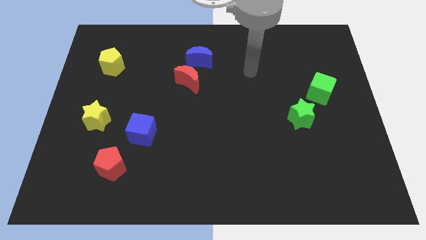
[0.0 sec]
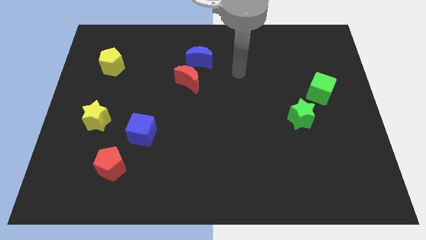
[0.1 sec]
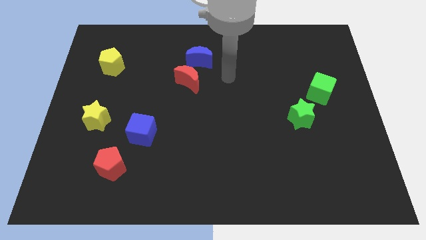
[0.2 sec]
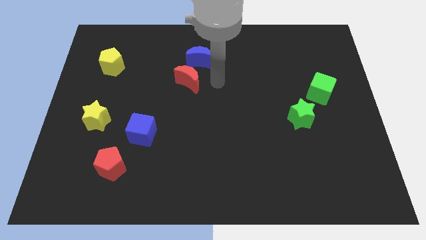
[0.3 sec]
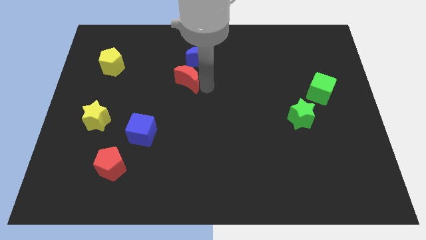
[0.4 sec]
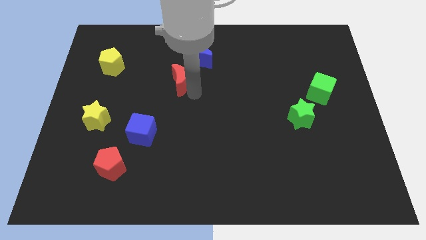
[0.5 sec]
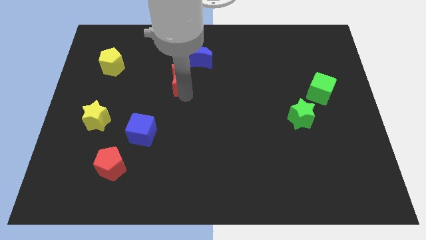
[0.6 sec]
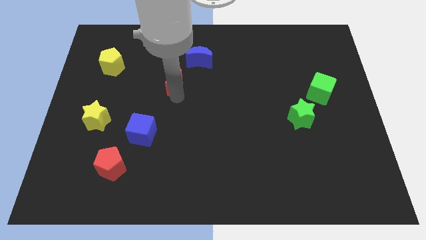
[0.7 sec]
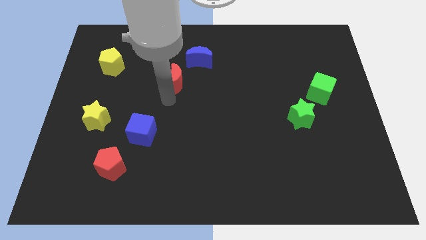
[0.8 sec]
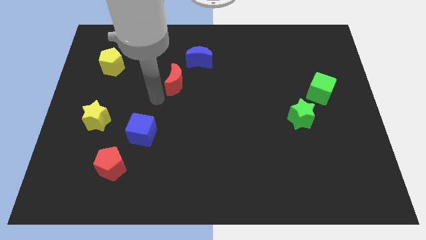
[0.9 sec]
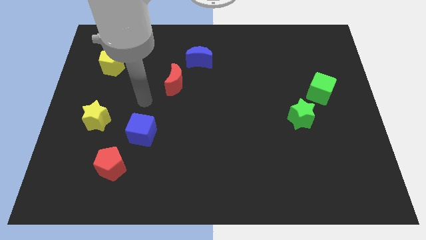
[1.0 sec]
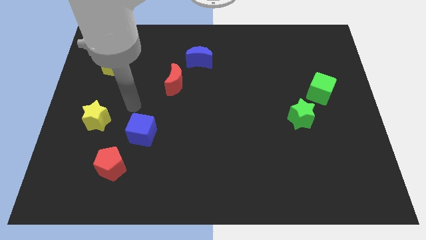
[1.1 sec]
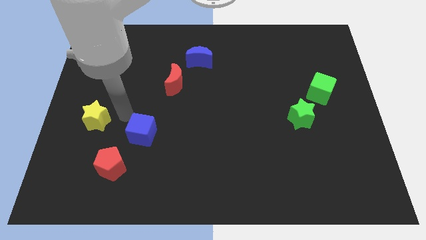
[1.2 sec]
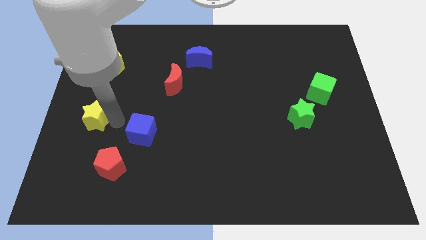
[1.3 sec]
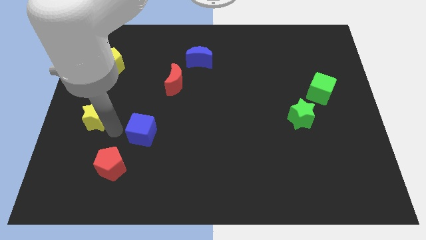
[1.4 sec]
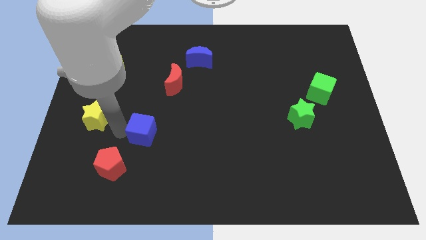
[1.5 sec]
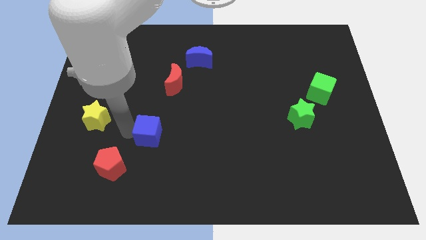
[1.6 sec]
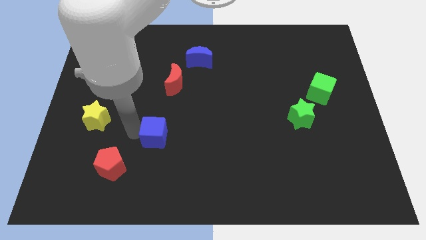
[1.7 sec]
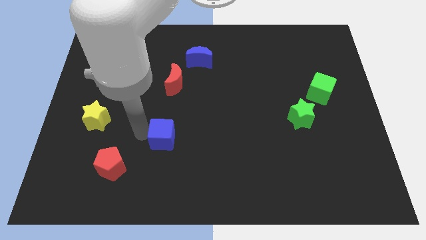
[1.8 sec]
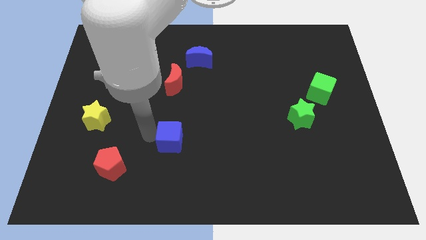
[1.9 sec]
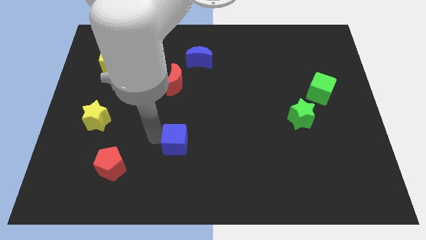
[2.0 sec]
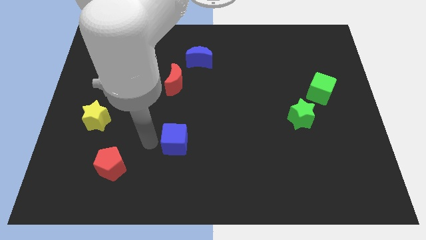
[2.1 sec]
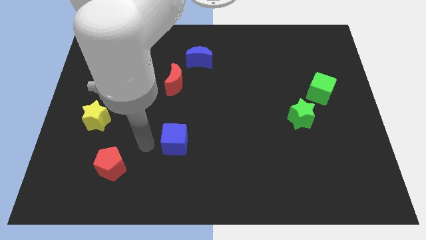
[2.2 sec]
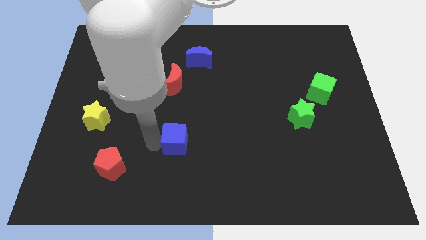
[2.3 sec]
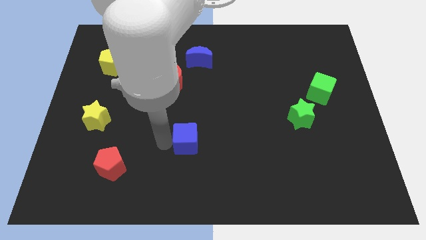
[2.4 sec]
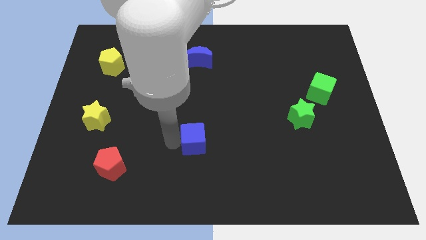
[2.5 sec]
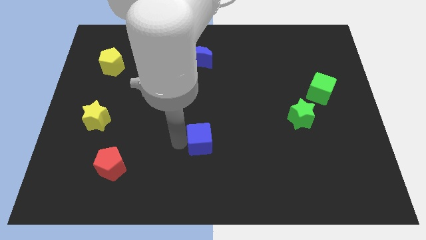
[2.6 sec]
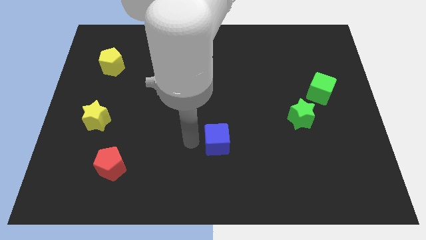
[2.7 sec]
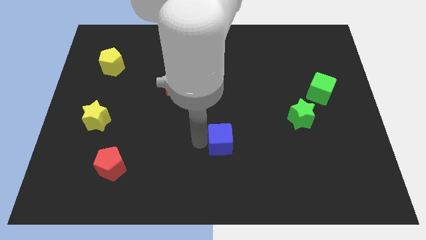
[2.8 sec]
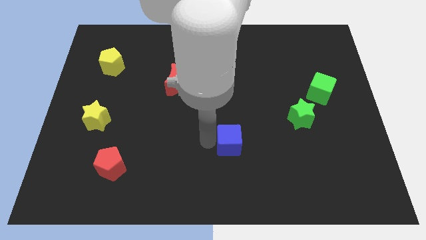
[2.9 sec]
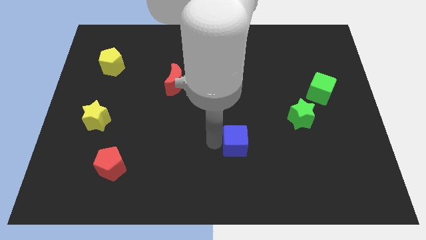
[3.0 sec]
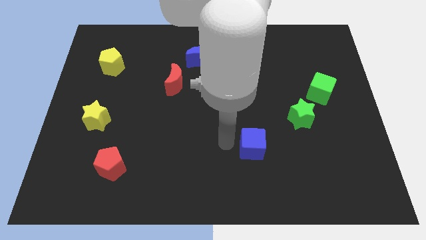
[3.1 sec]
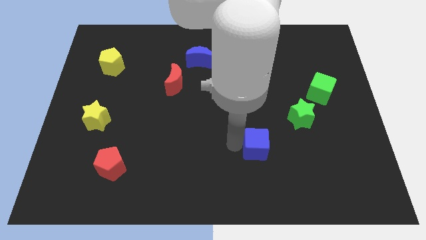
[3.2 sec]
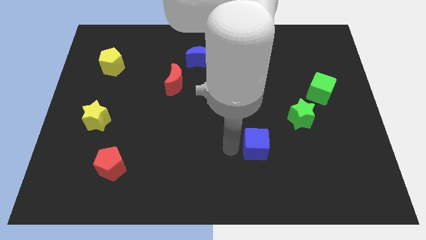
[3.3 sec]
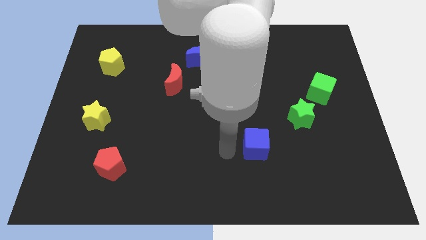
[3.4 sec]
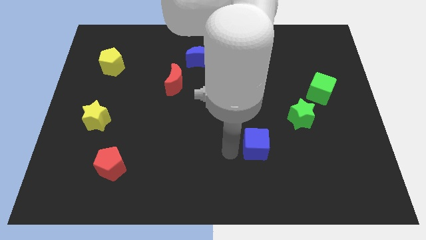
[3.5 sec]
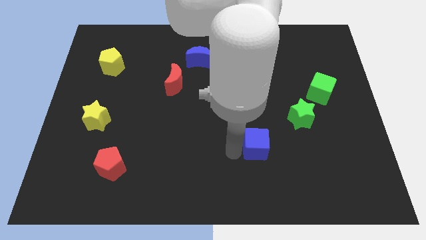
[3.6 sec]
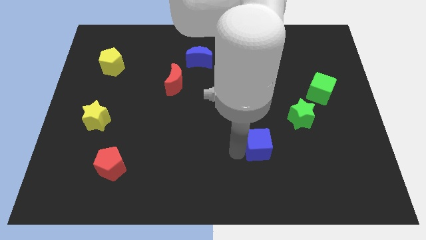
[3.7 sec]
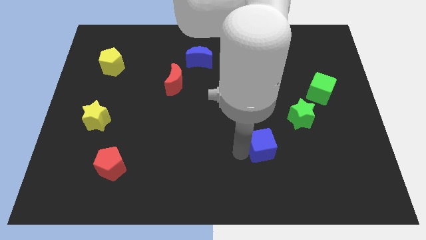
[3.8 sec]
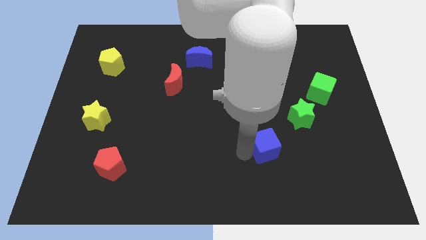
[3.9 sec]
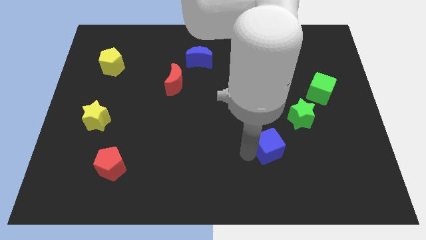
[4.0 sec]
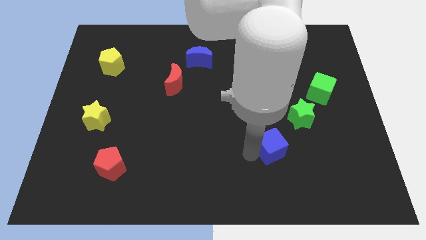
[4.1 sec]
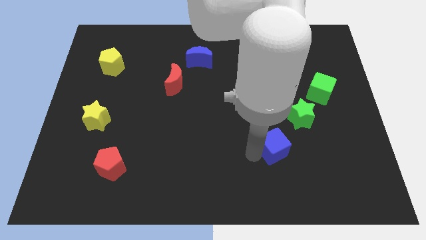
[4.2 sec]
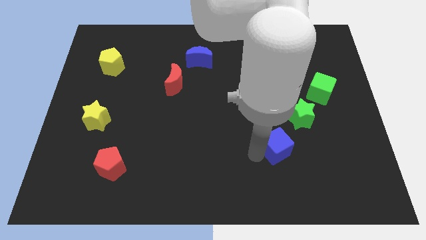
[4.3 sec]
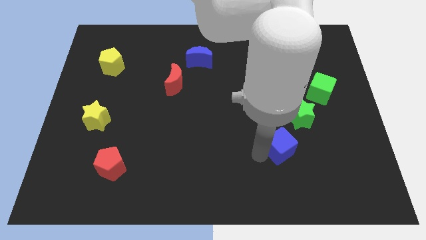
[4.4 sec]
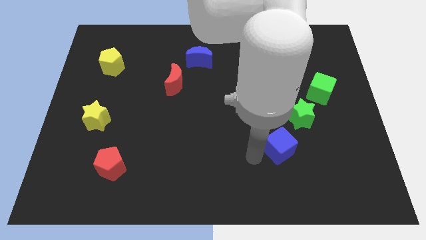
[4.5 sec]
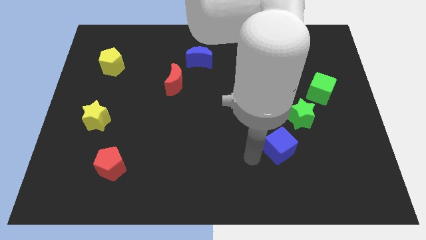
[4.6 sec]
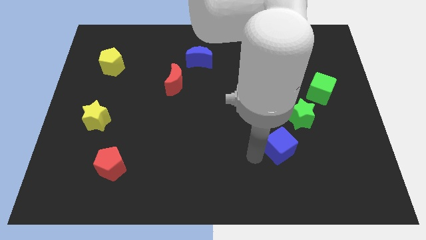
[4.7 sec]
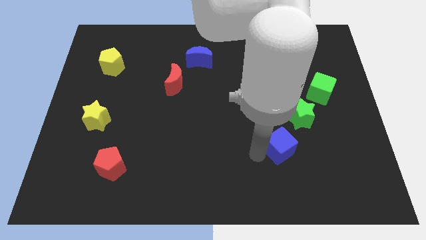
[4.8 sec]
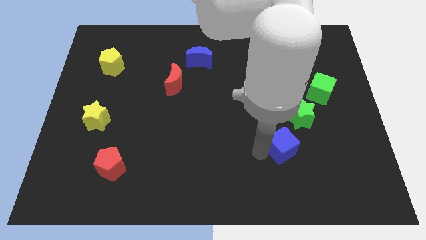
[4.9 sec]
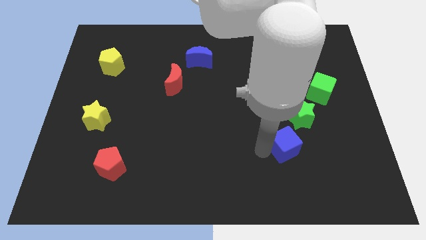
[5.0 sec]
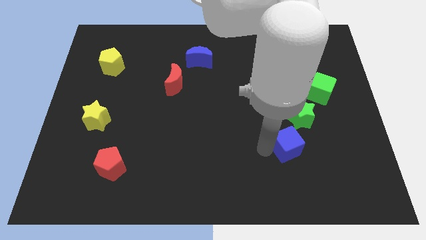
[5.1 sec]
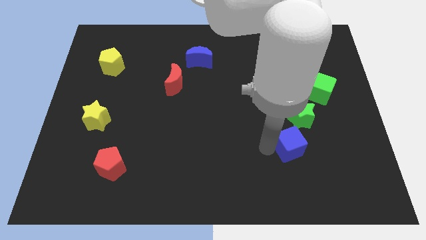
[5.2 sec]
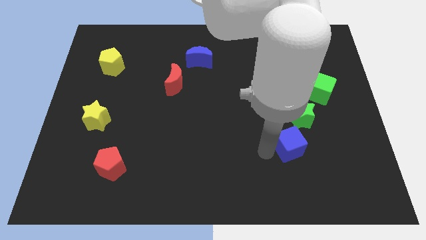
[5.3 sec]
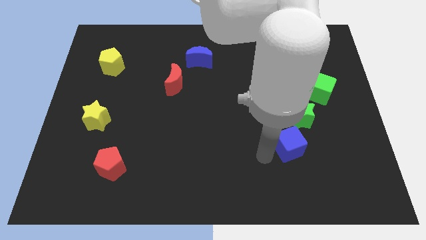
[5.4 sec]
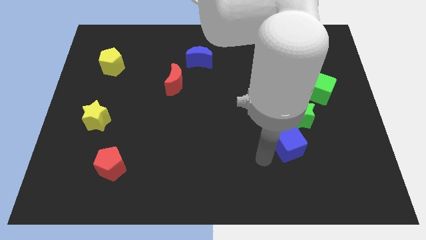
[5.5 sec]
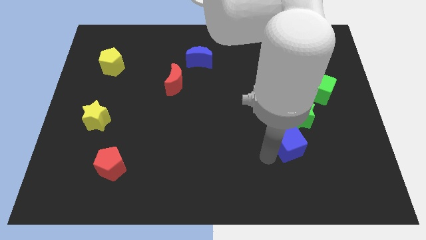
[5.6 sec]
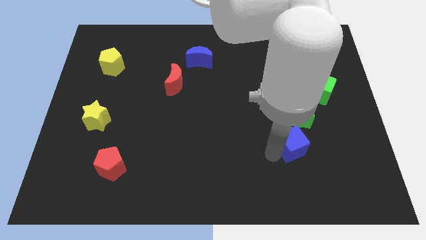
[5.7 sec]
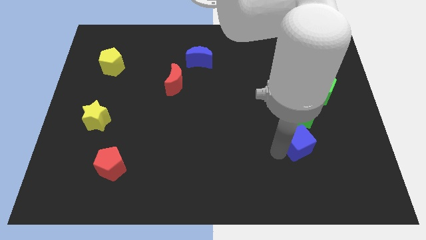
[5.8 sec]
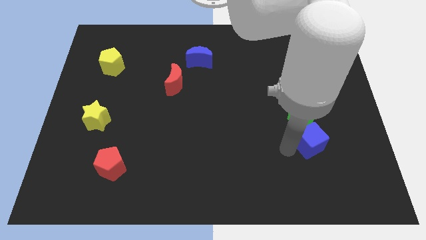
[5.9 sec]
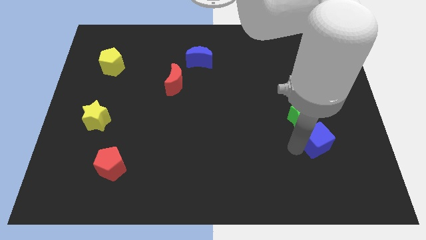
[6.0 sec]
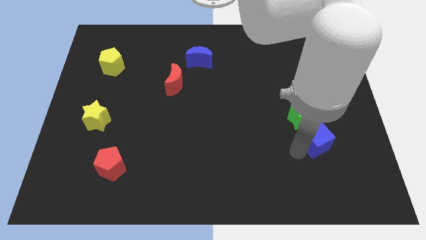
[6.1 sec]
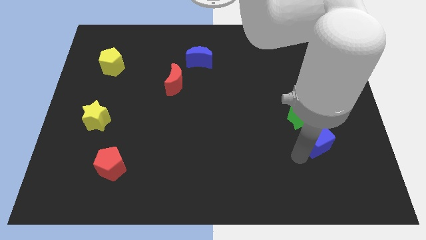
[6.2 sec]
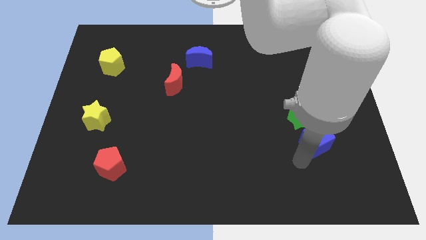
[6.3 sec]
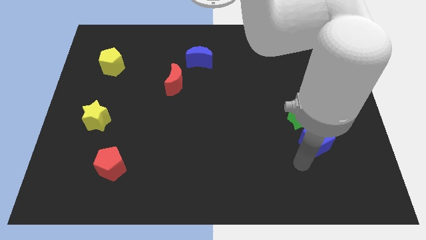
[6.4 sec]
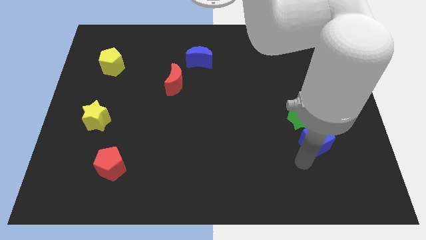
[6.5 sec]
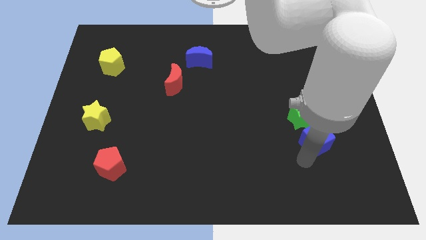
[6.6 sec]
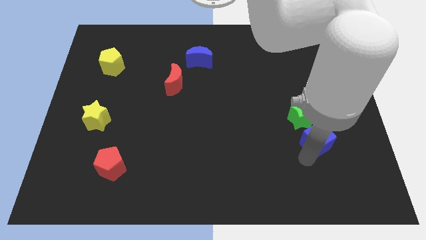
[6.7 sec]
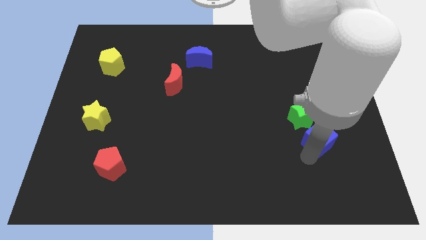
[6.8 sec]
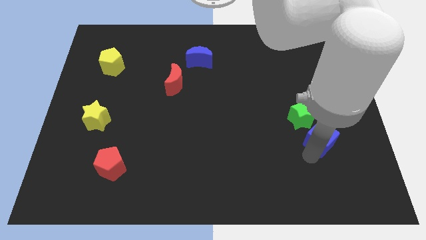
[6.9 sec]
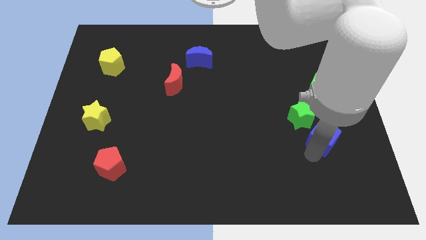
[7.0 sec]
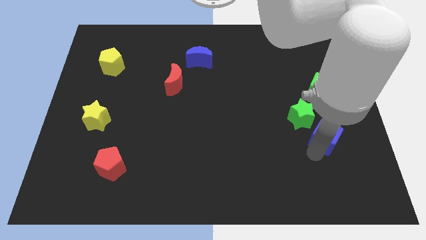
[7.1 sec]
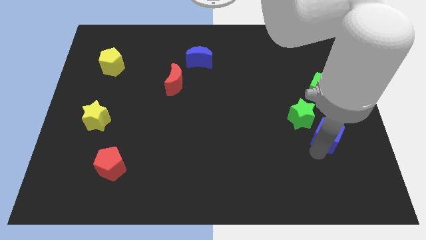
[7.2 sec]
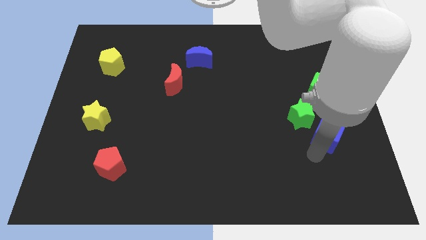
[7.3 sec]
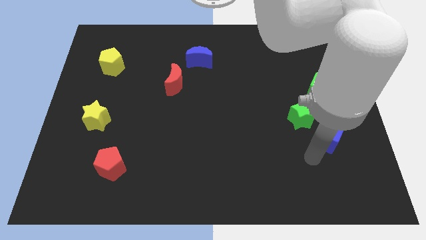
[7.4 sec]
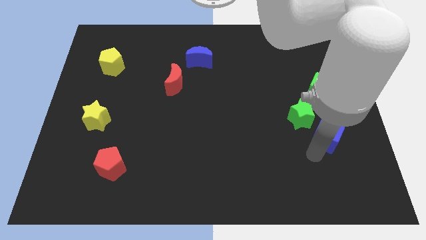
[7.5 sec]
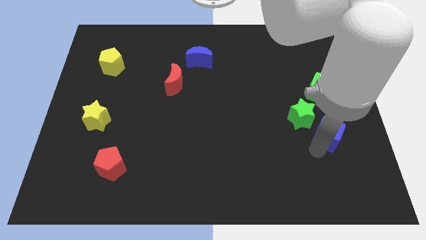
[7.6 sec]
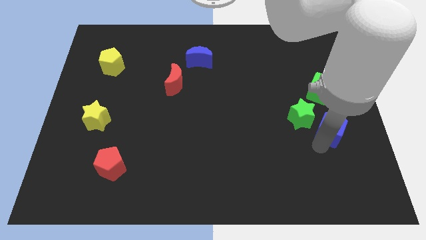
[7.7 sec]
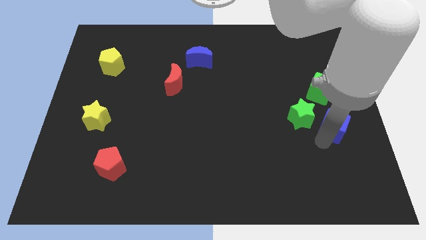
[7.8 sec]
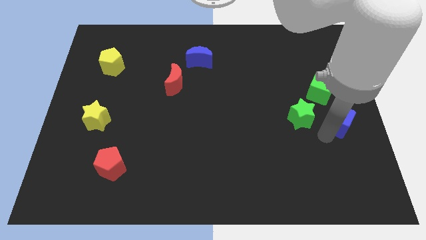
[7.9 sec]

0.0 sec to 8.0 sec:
put the blue cube to the right side of the board
